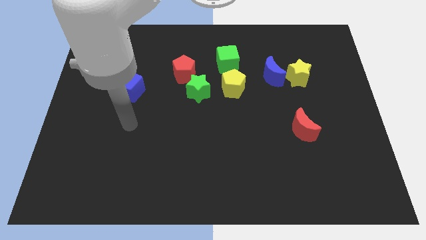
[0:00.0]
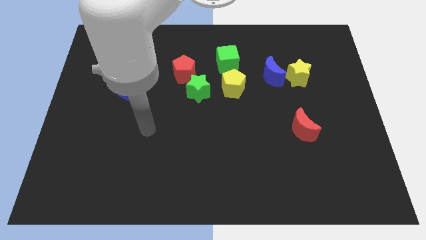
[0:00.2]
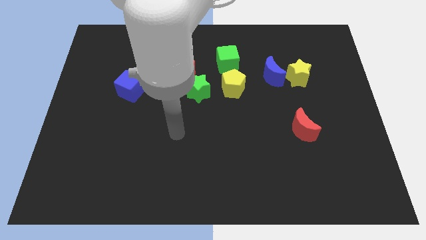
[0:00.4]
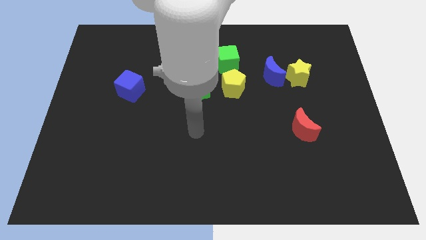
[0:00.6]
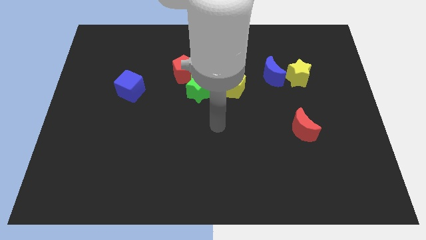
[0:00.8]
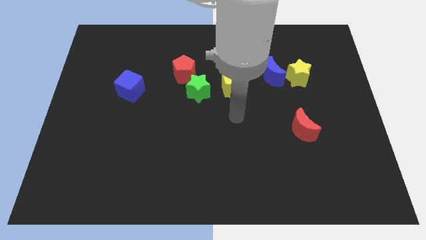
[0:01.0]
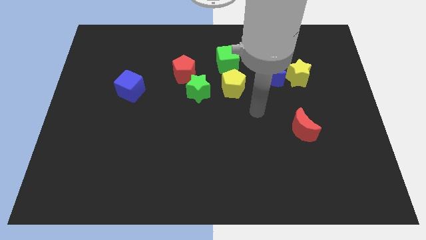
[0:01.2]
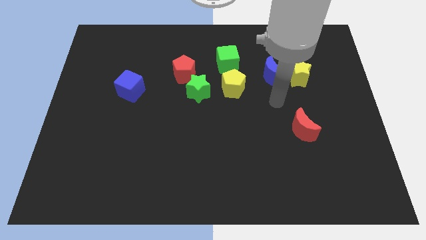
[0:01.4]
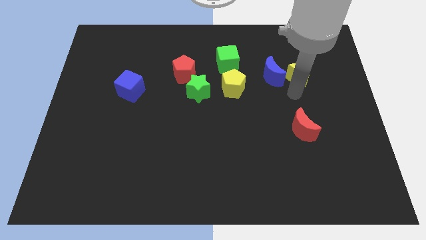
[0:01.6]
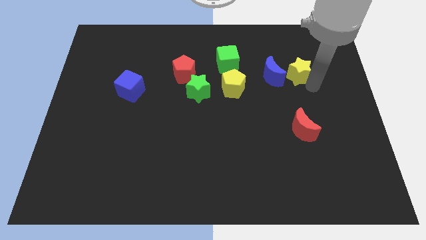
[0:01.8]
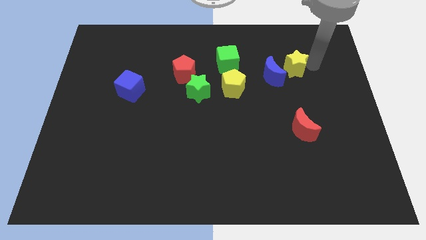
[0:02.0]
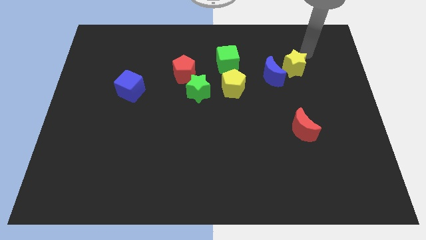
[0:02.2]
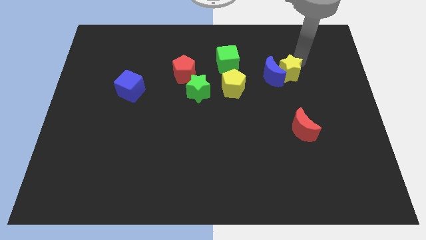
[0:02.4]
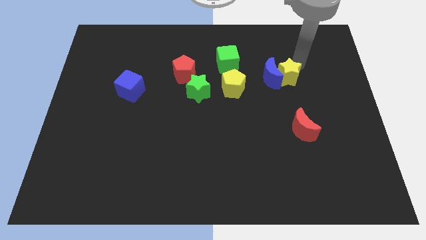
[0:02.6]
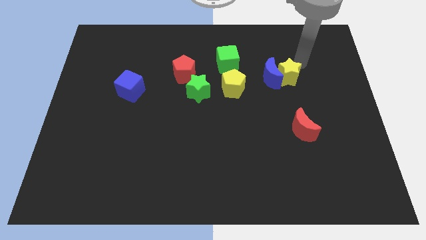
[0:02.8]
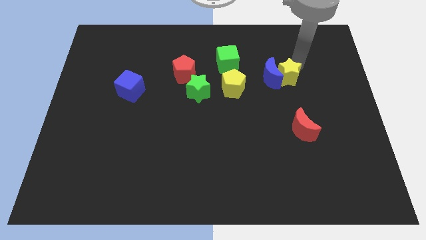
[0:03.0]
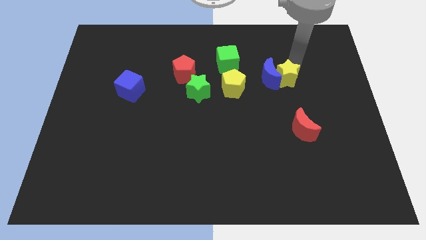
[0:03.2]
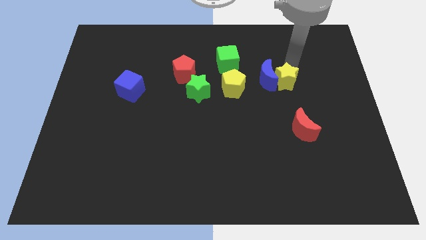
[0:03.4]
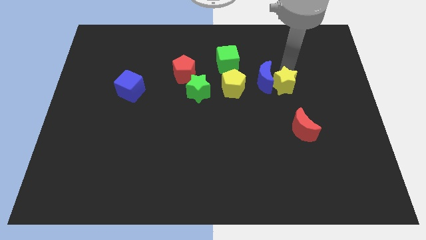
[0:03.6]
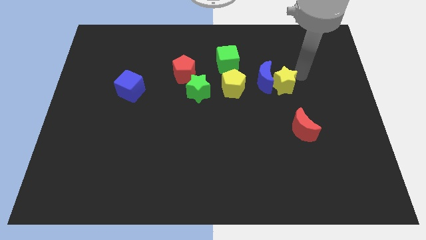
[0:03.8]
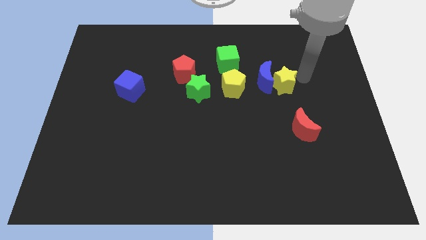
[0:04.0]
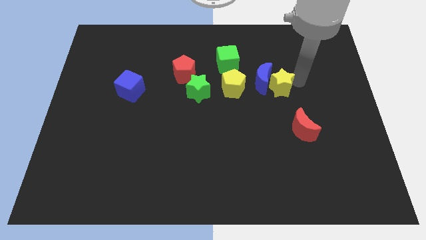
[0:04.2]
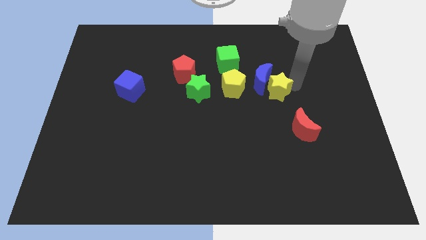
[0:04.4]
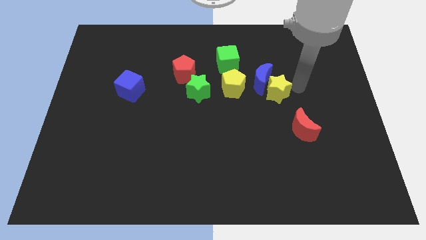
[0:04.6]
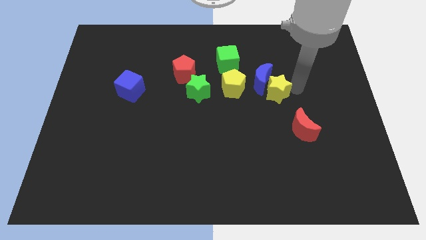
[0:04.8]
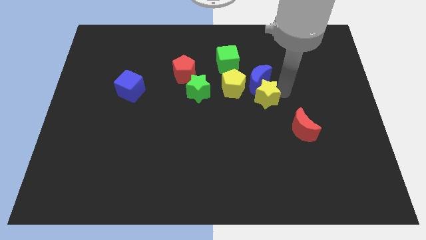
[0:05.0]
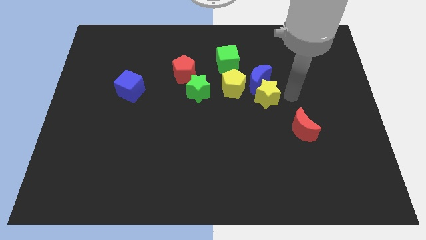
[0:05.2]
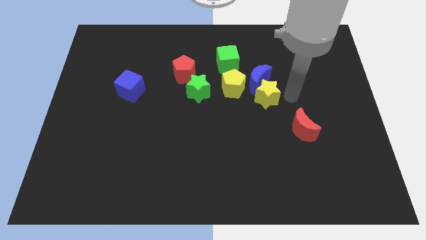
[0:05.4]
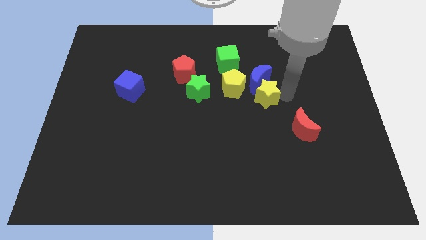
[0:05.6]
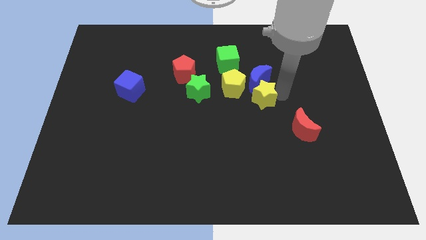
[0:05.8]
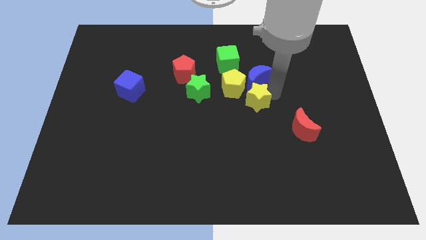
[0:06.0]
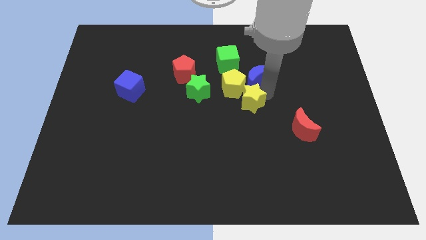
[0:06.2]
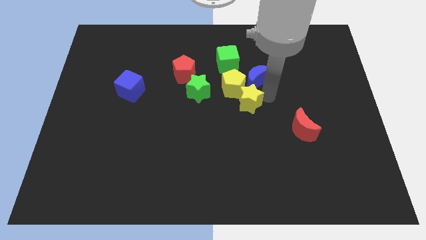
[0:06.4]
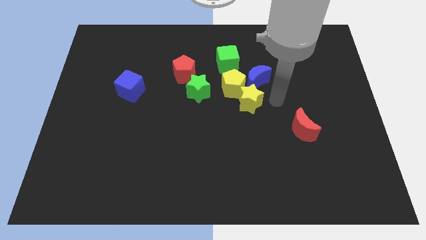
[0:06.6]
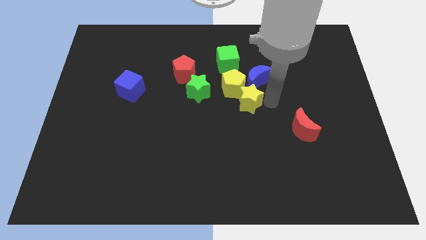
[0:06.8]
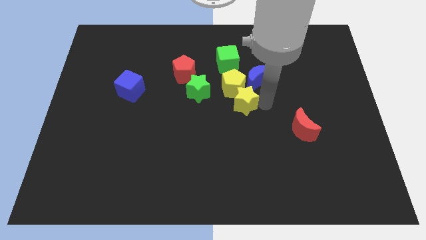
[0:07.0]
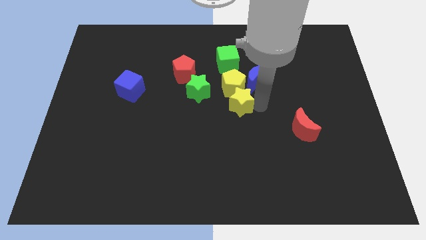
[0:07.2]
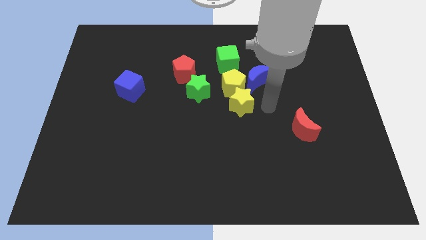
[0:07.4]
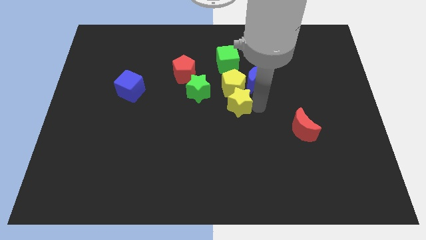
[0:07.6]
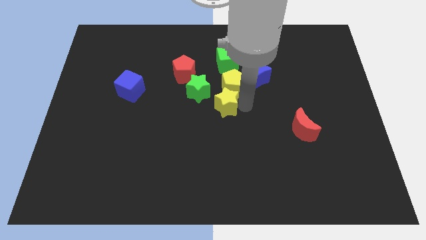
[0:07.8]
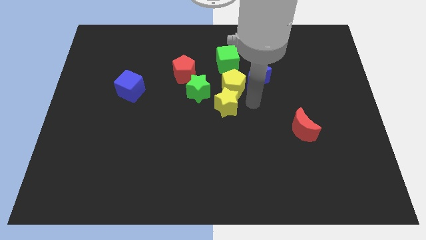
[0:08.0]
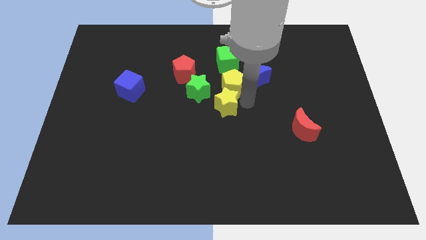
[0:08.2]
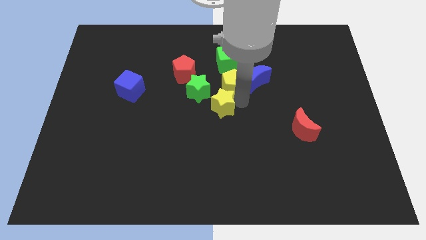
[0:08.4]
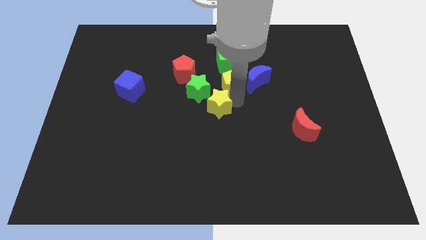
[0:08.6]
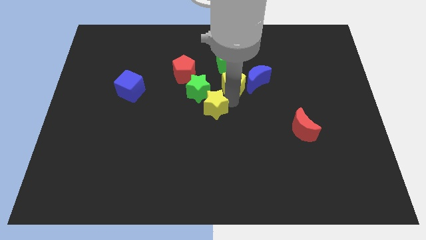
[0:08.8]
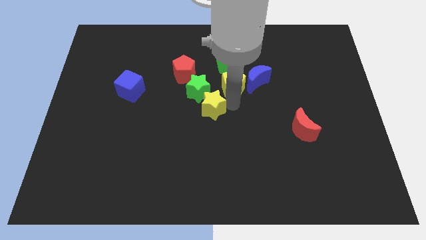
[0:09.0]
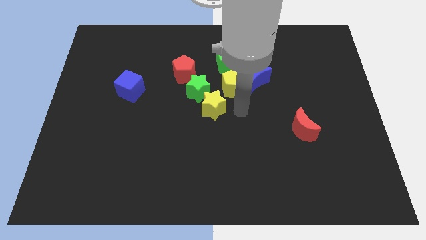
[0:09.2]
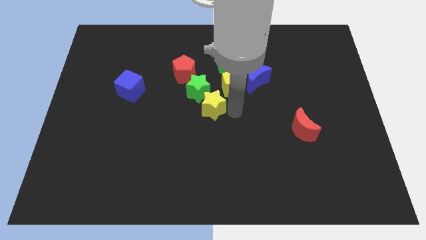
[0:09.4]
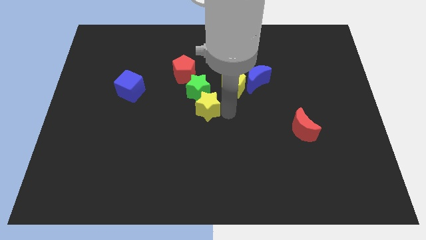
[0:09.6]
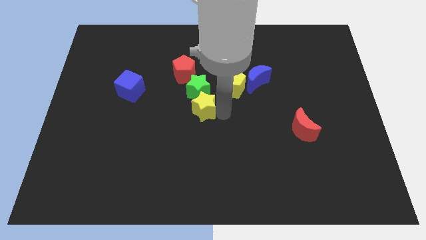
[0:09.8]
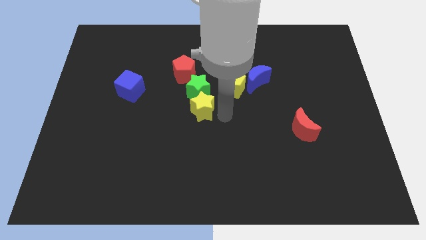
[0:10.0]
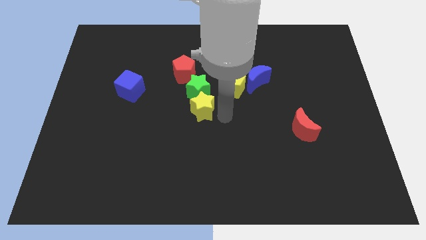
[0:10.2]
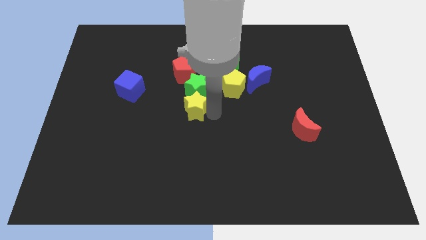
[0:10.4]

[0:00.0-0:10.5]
move the yellow star to the left

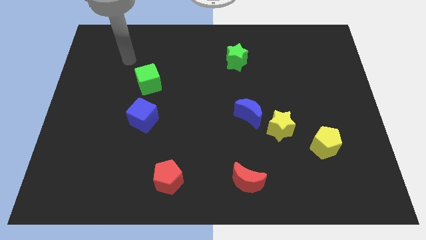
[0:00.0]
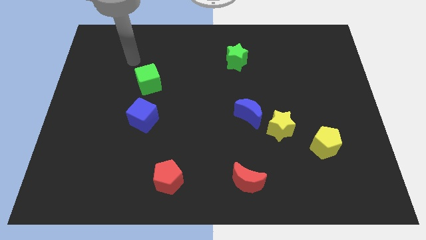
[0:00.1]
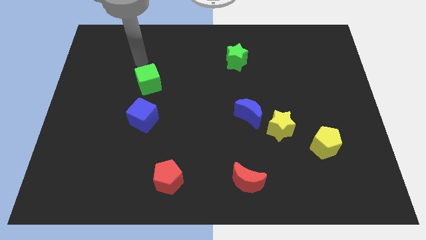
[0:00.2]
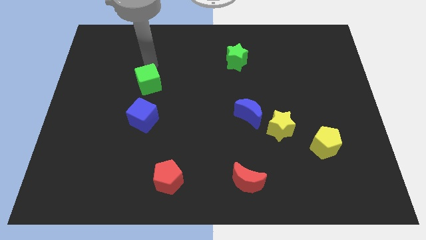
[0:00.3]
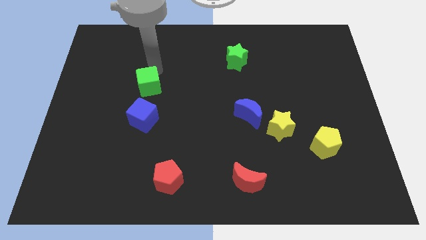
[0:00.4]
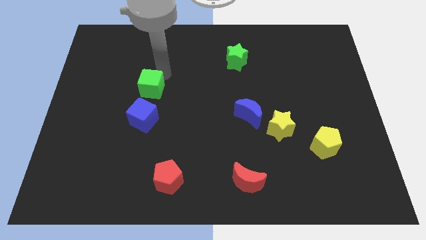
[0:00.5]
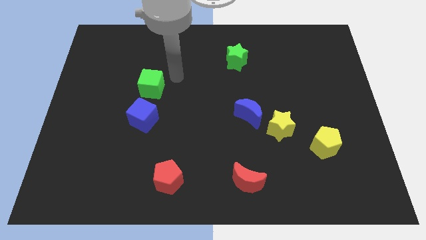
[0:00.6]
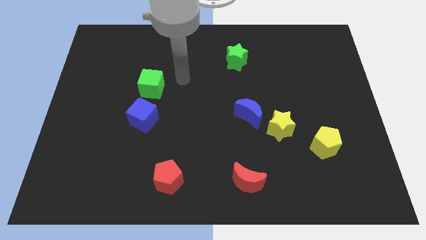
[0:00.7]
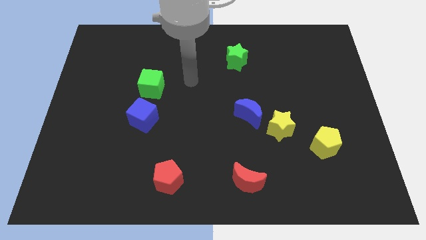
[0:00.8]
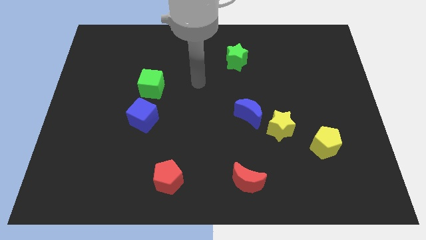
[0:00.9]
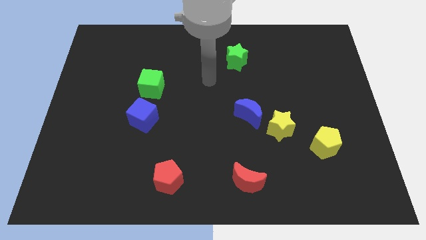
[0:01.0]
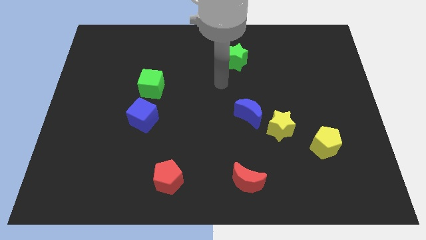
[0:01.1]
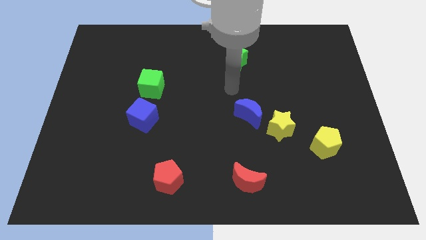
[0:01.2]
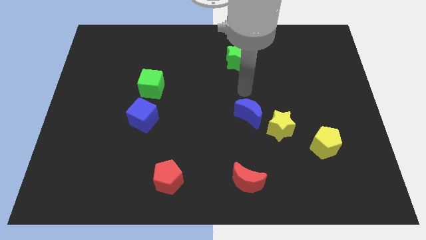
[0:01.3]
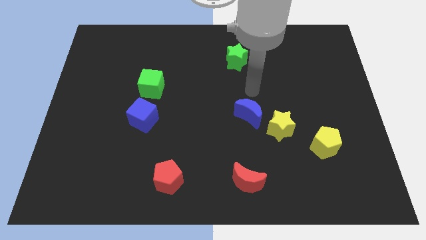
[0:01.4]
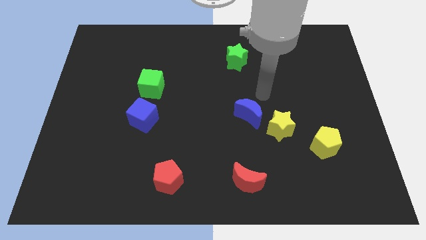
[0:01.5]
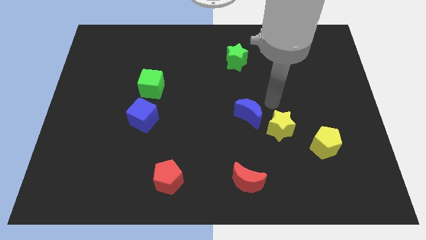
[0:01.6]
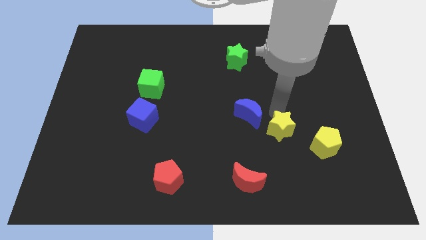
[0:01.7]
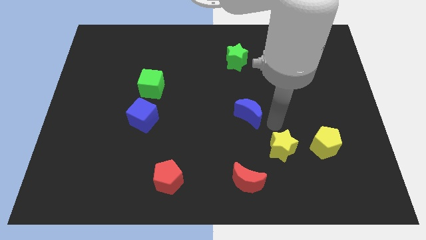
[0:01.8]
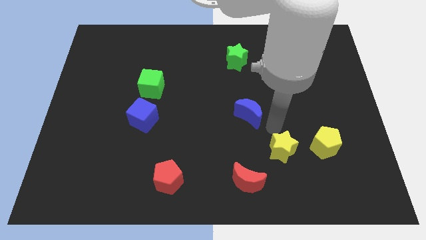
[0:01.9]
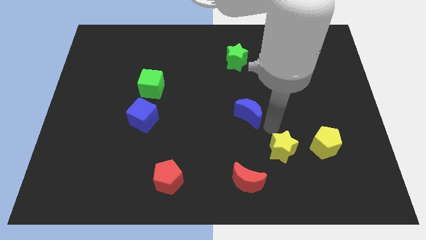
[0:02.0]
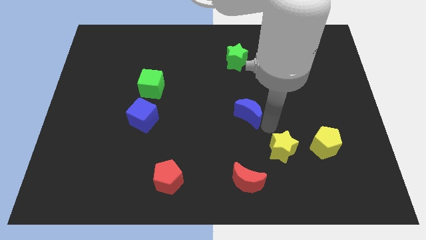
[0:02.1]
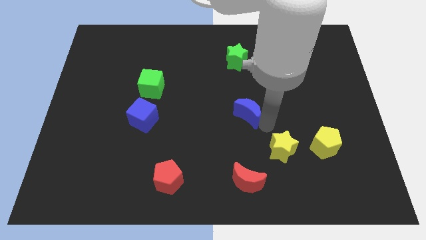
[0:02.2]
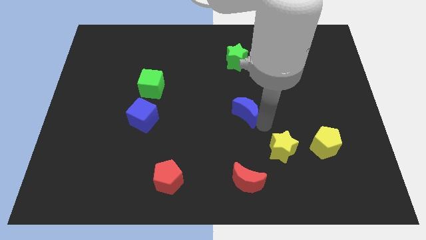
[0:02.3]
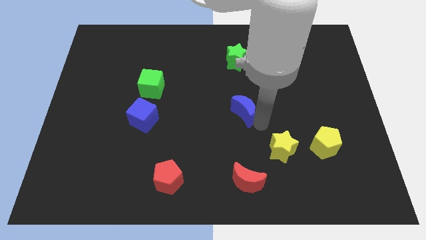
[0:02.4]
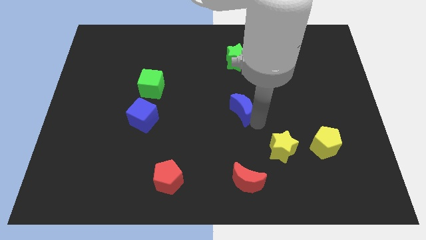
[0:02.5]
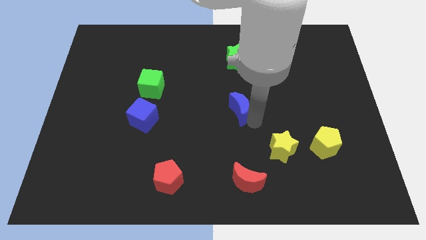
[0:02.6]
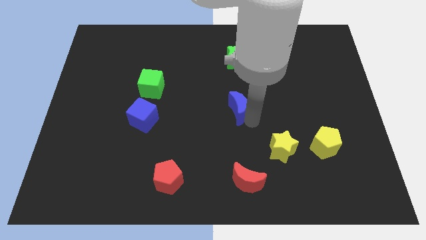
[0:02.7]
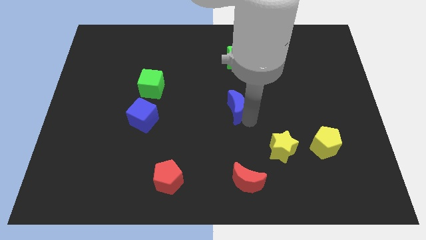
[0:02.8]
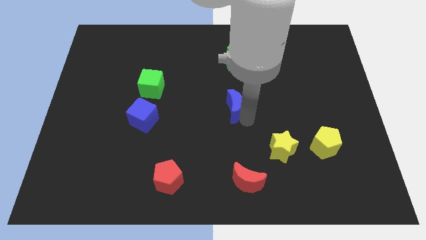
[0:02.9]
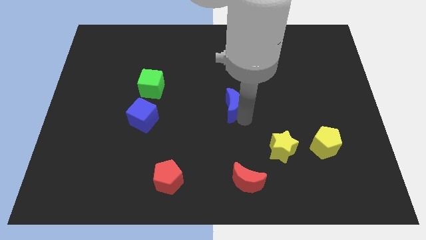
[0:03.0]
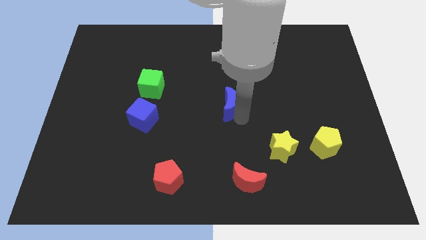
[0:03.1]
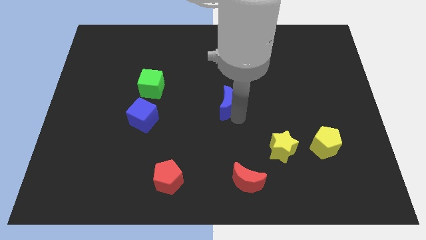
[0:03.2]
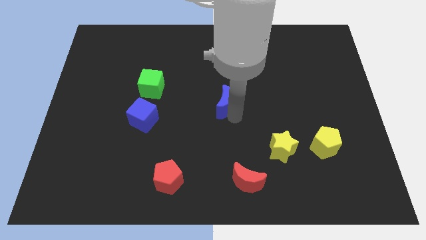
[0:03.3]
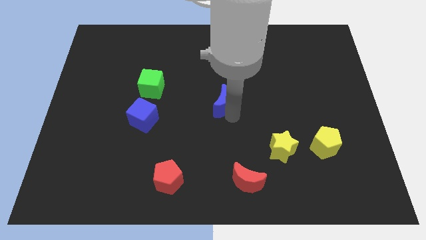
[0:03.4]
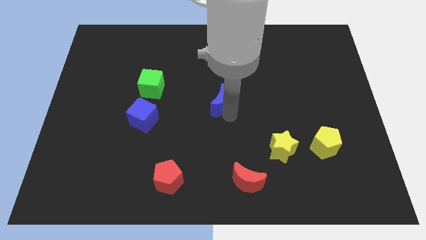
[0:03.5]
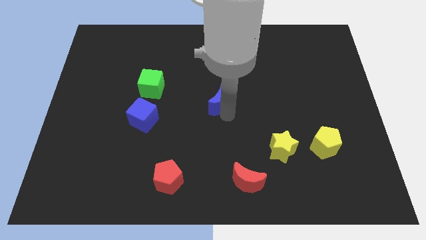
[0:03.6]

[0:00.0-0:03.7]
move the blue moon a little diagonally up and left
